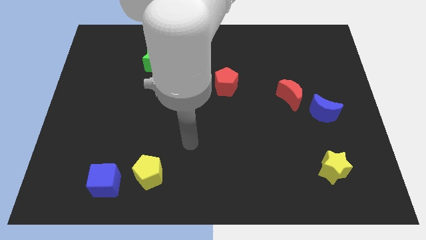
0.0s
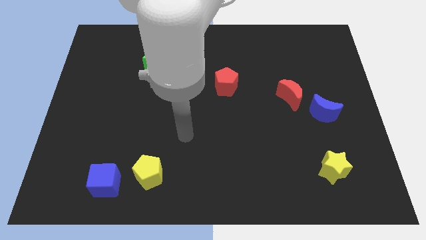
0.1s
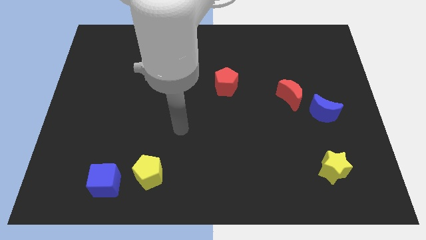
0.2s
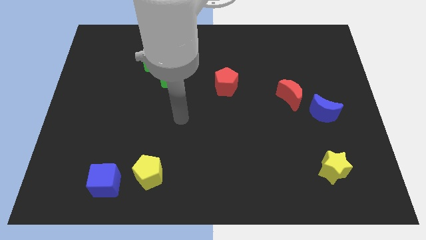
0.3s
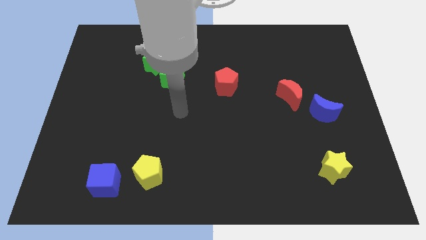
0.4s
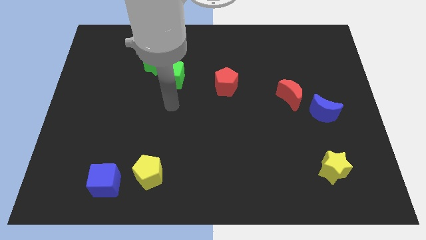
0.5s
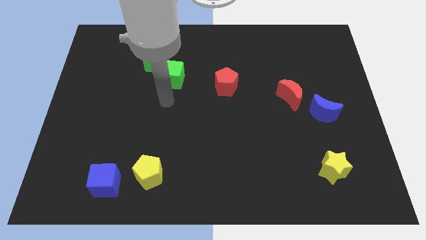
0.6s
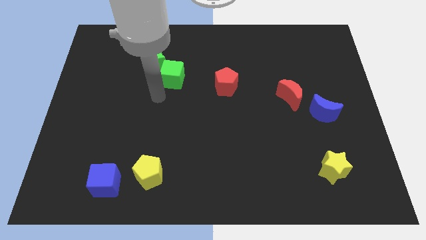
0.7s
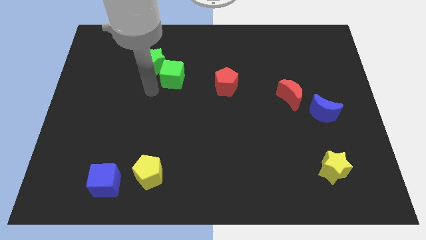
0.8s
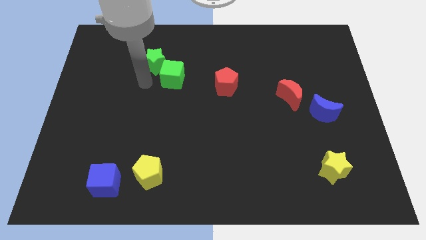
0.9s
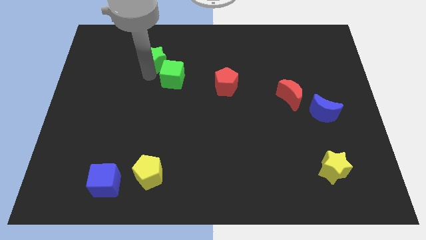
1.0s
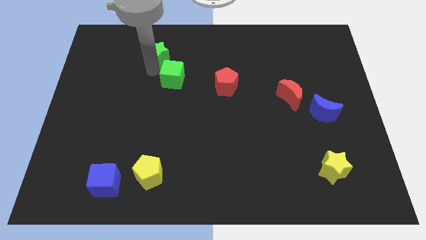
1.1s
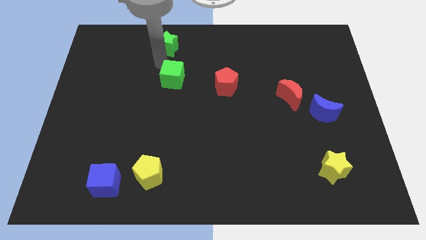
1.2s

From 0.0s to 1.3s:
move the green cube away from the green star

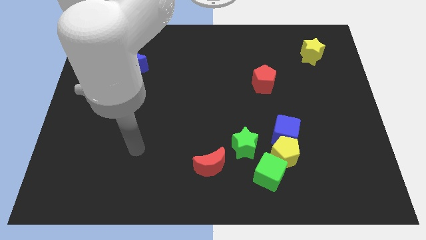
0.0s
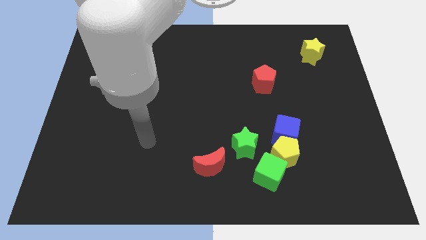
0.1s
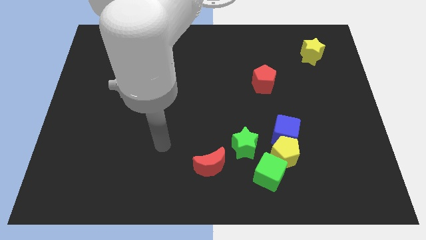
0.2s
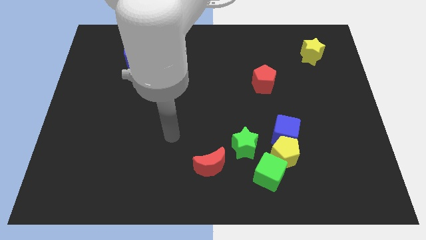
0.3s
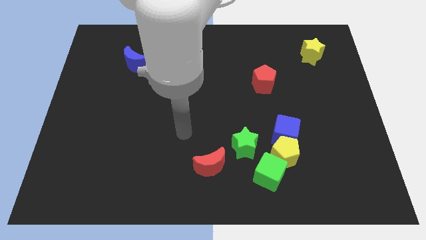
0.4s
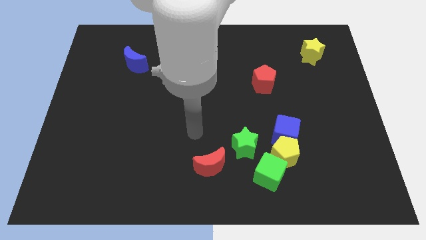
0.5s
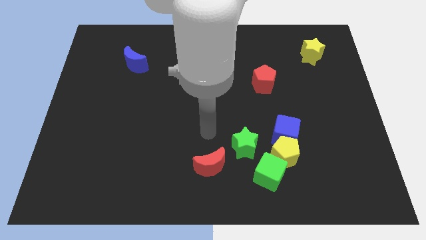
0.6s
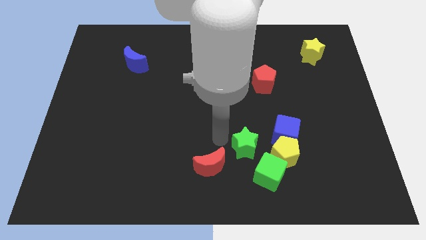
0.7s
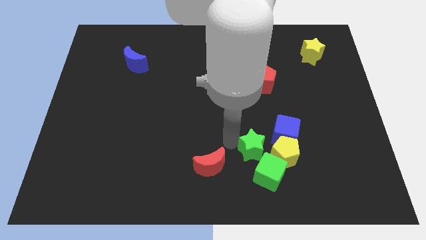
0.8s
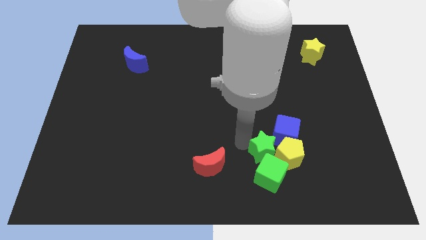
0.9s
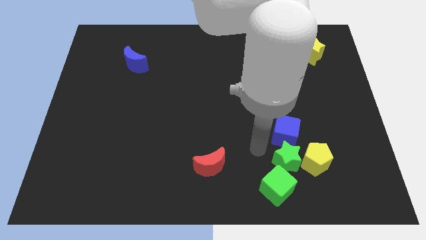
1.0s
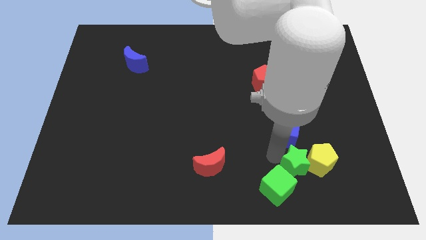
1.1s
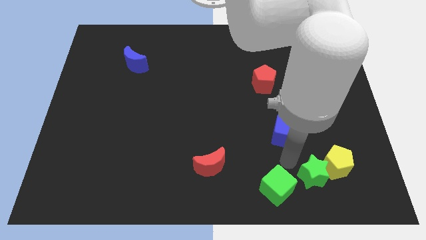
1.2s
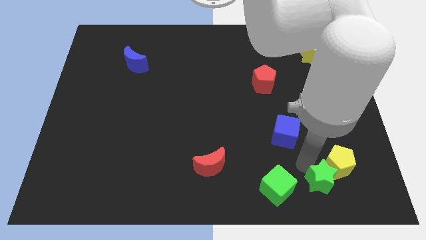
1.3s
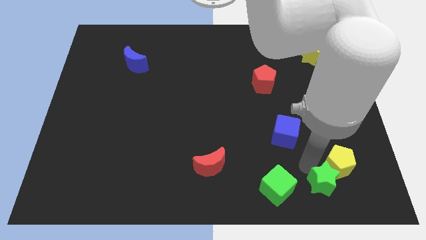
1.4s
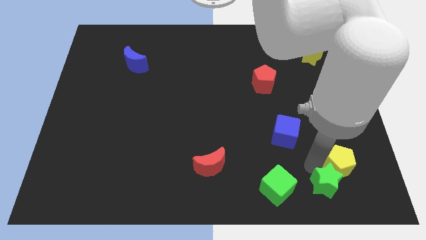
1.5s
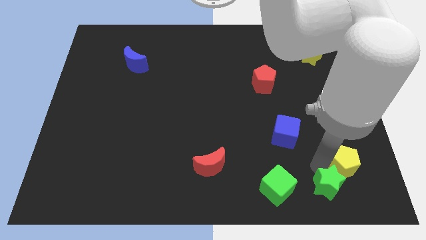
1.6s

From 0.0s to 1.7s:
separate the yellow pentagon from the blue cube, green cube, and green star

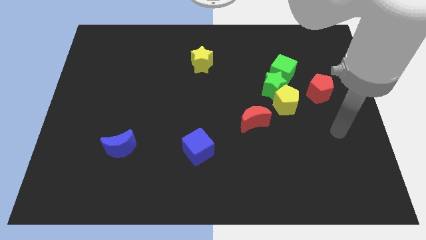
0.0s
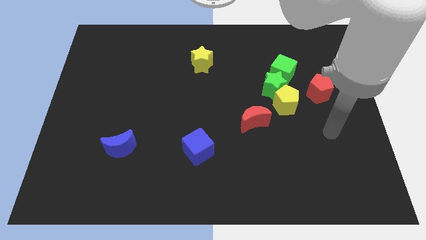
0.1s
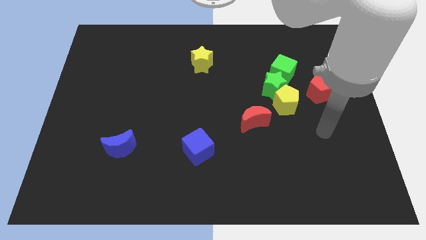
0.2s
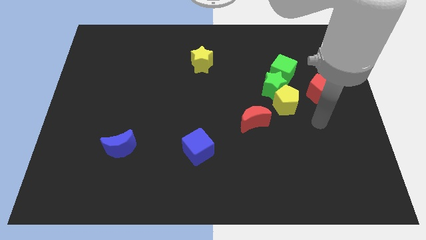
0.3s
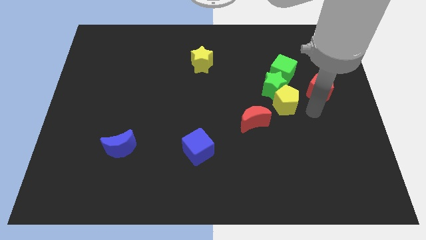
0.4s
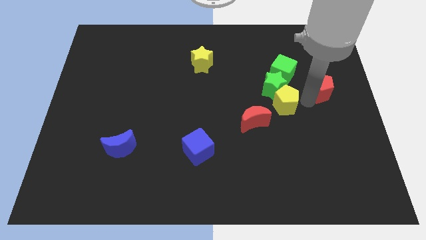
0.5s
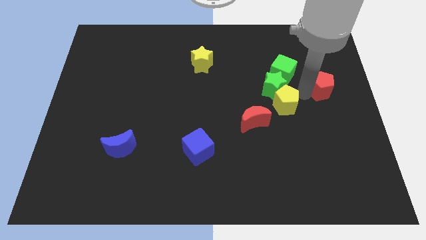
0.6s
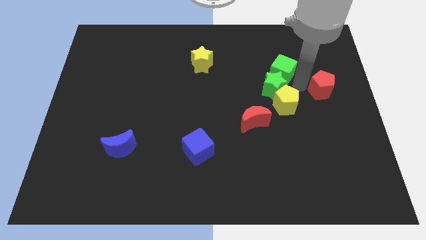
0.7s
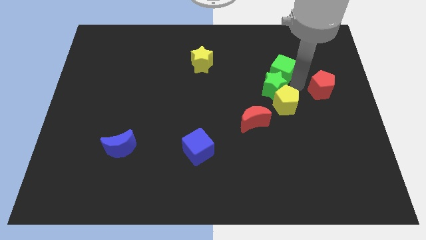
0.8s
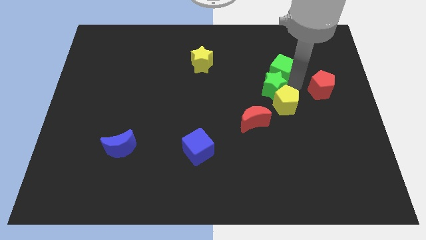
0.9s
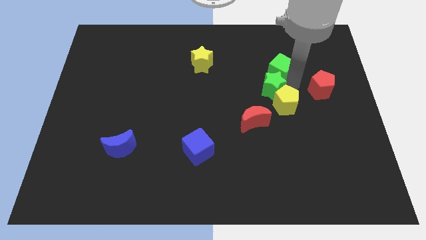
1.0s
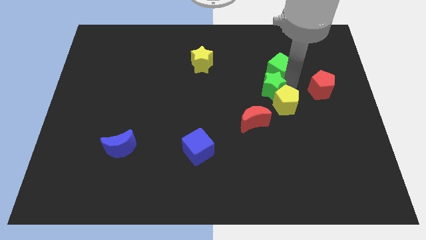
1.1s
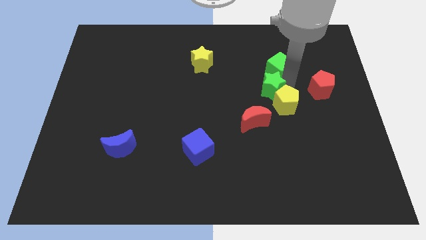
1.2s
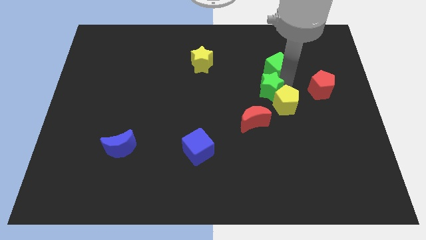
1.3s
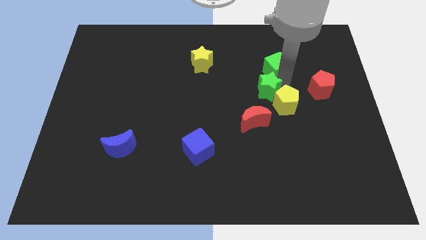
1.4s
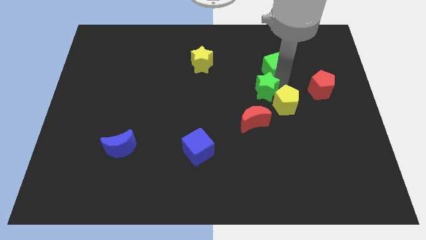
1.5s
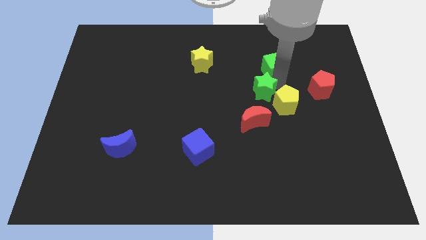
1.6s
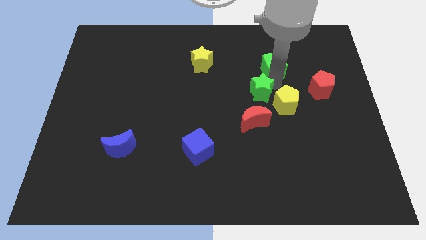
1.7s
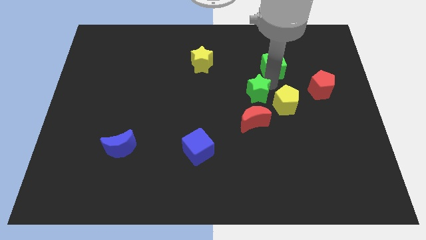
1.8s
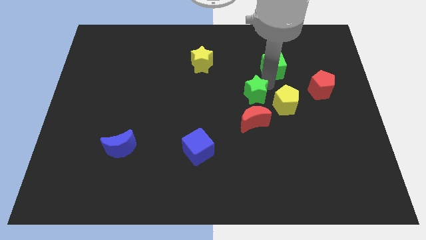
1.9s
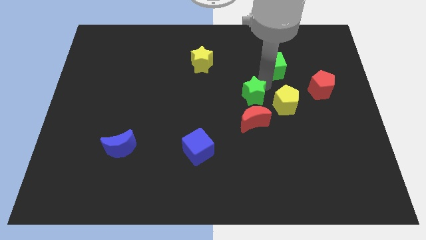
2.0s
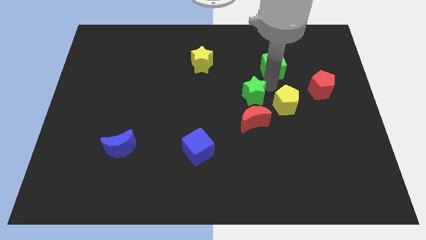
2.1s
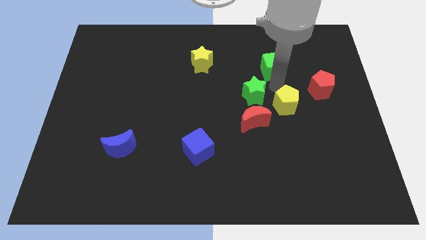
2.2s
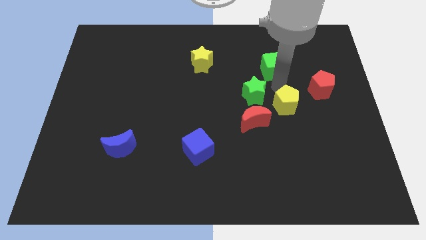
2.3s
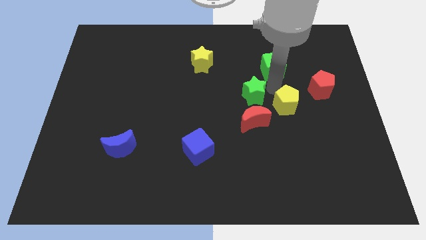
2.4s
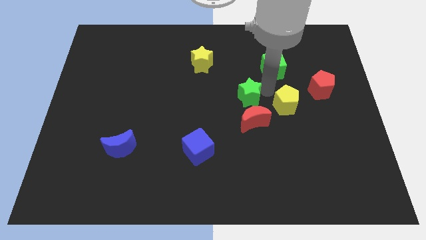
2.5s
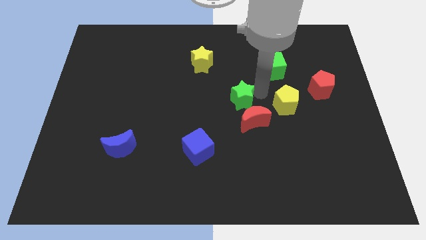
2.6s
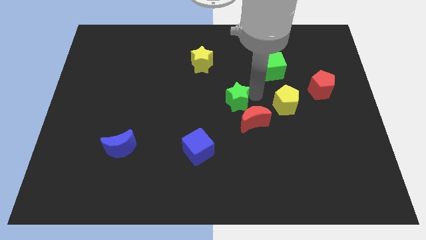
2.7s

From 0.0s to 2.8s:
separate the green star from the yellow pentagon and green cube

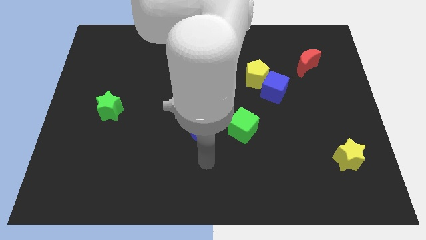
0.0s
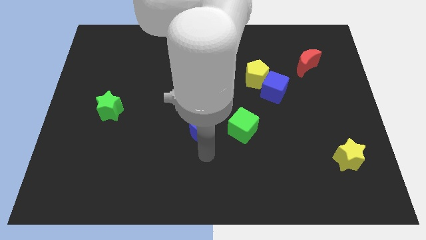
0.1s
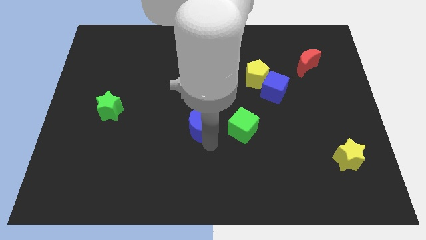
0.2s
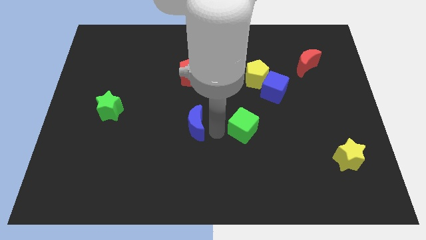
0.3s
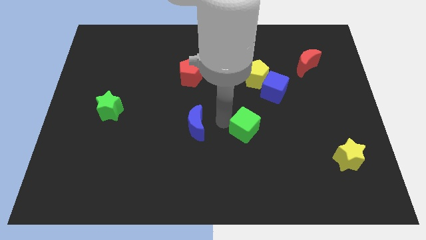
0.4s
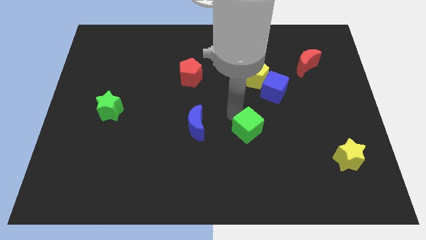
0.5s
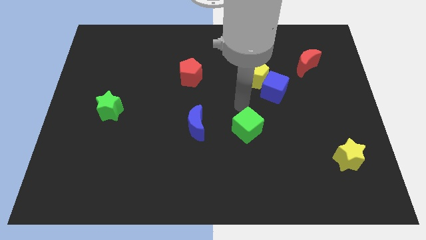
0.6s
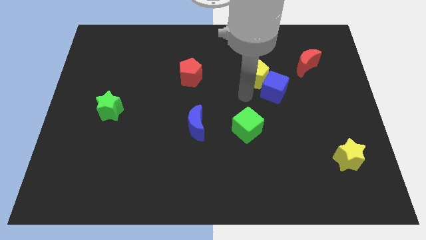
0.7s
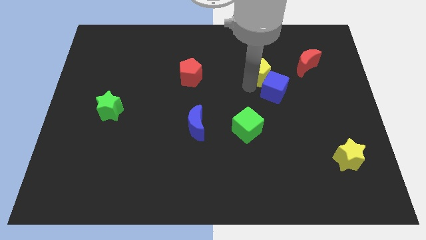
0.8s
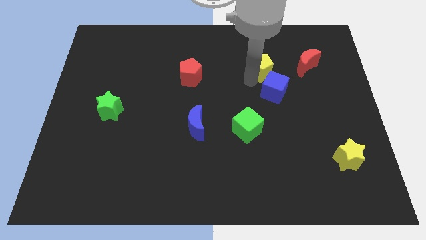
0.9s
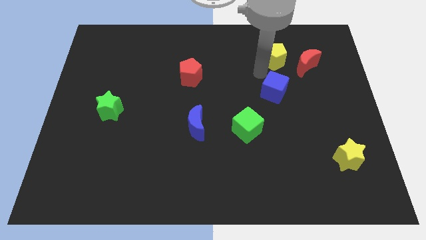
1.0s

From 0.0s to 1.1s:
pull the blue cube apart from the yellow pentagon

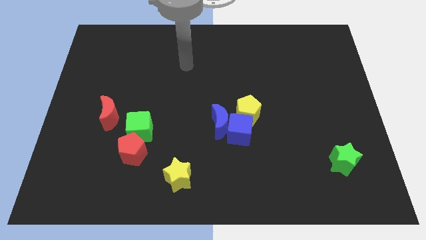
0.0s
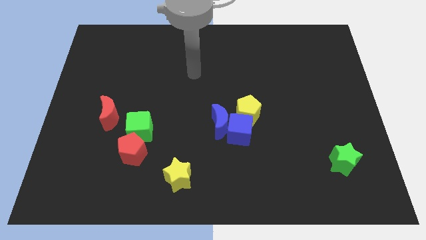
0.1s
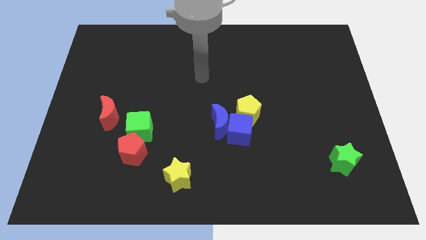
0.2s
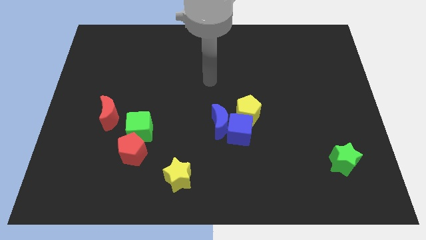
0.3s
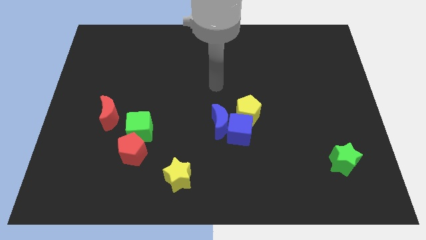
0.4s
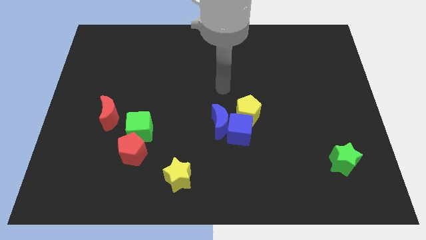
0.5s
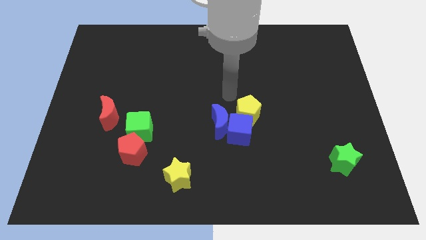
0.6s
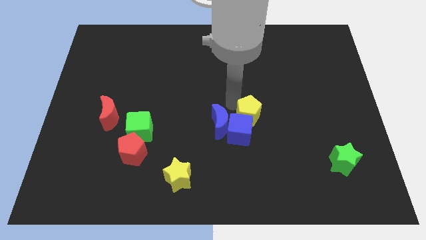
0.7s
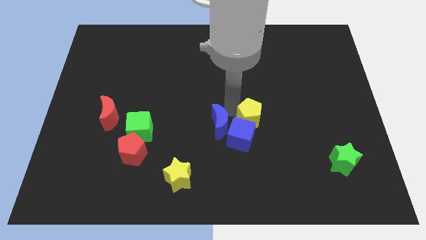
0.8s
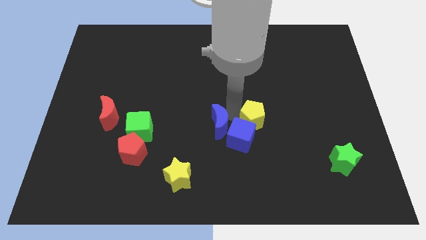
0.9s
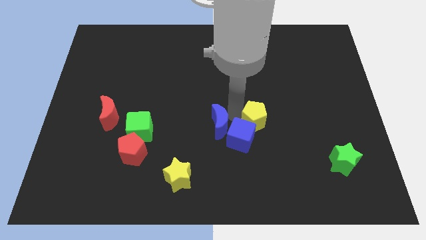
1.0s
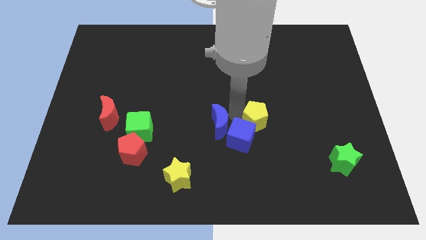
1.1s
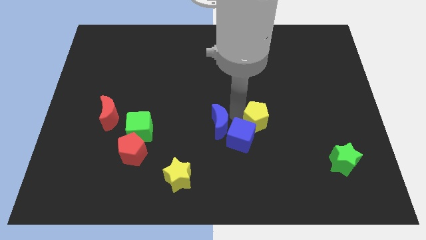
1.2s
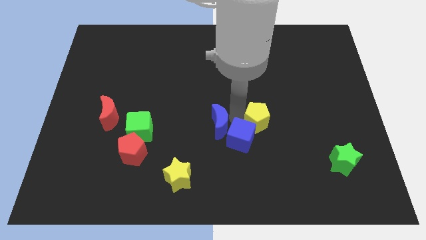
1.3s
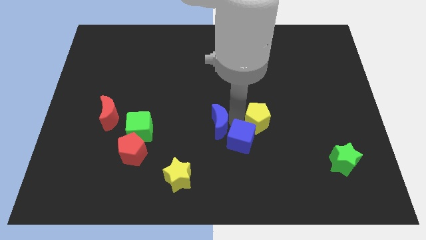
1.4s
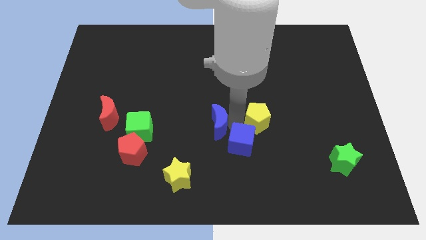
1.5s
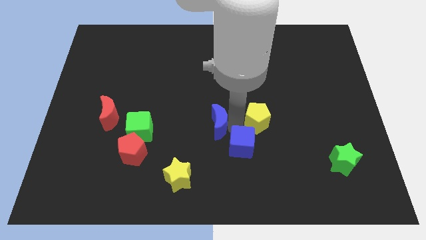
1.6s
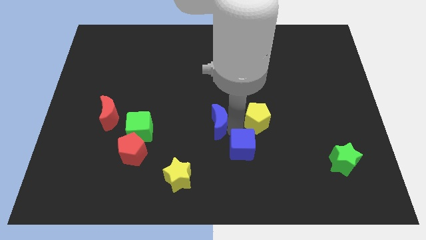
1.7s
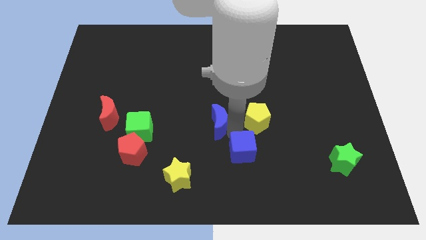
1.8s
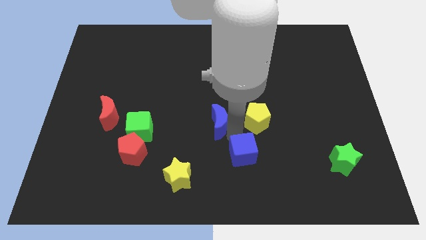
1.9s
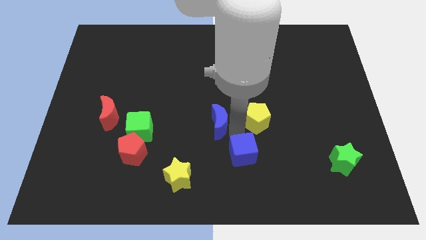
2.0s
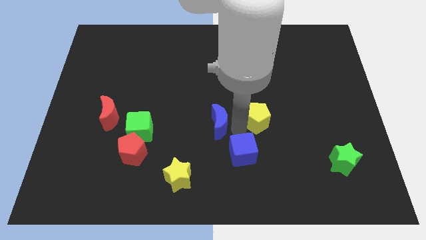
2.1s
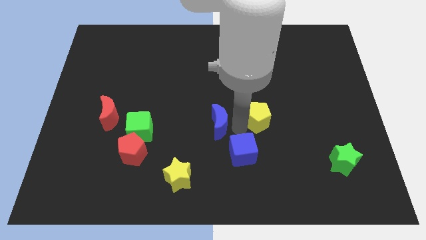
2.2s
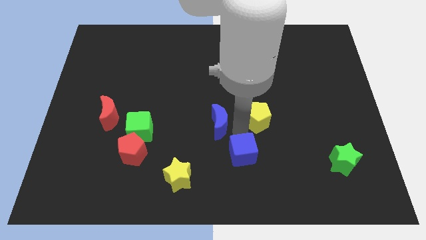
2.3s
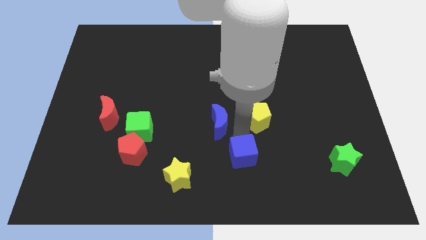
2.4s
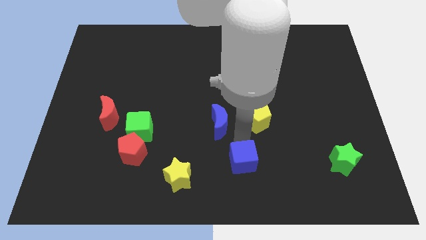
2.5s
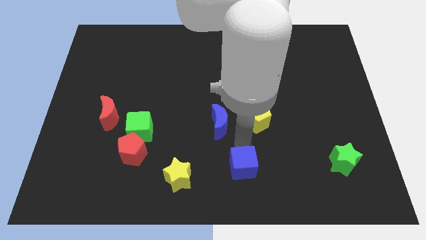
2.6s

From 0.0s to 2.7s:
separate the blue cube from the blue moon and yellow pentagon
